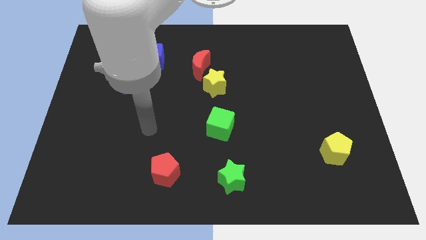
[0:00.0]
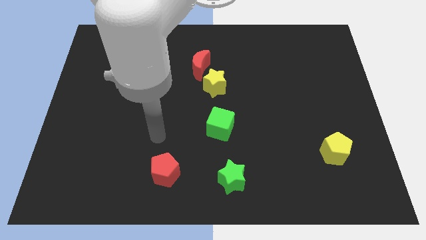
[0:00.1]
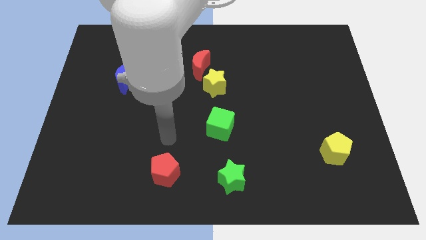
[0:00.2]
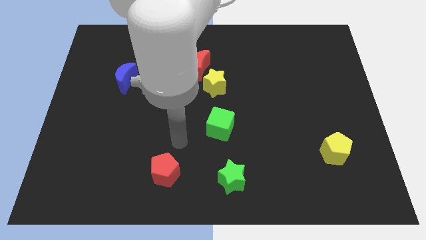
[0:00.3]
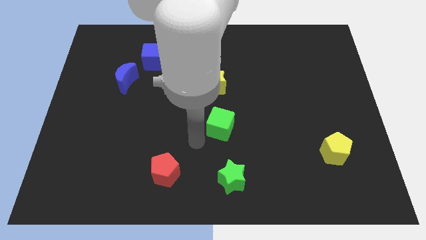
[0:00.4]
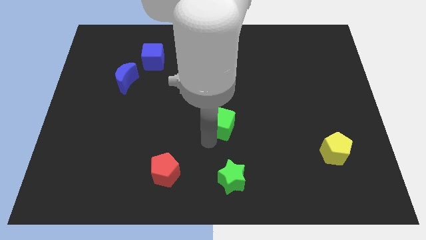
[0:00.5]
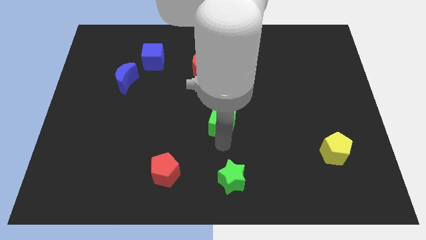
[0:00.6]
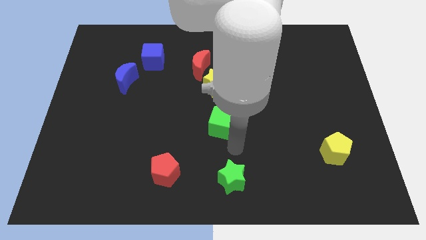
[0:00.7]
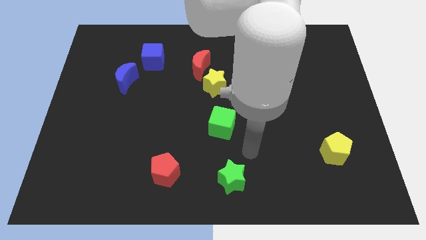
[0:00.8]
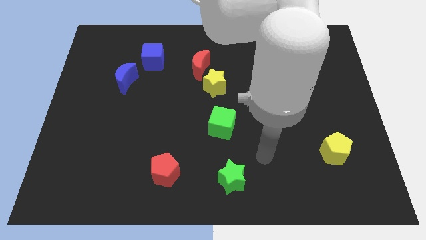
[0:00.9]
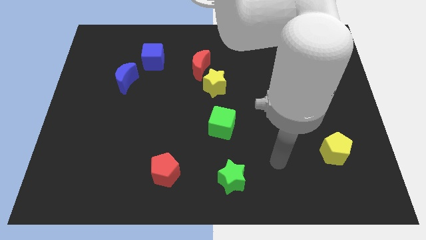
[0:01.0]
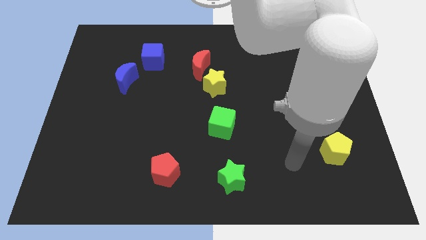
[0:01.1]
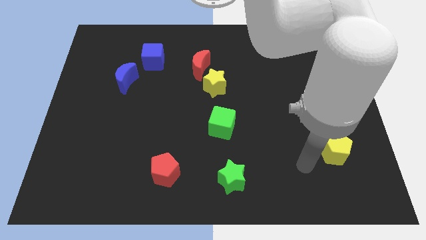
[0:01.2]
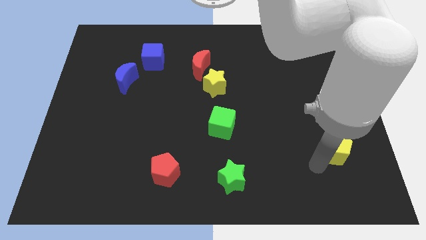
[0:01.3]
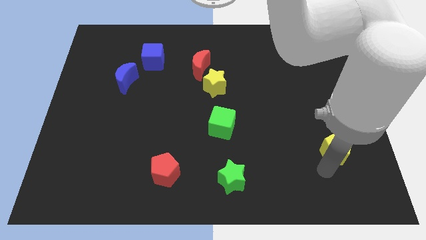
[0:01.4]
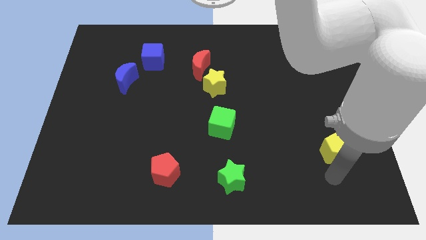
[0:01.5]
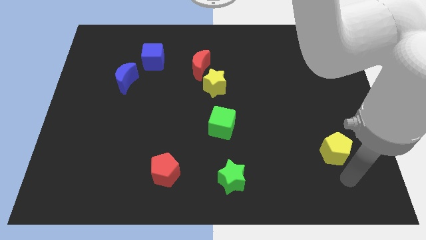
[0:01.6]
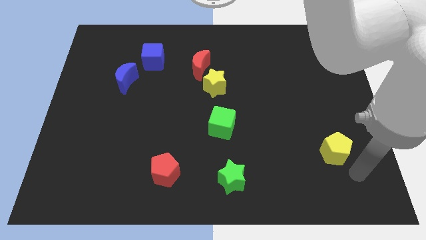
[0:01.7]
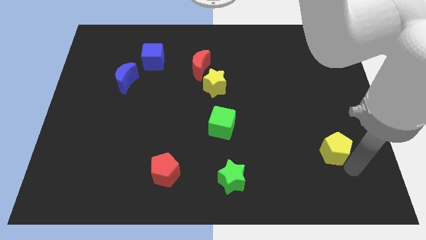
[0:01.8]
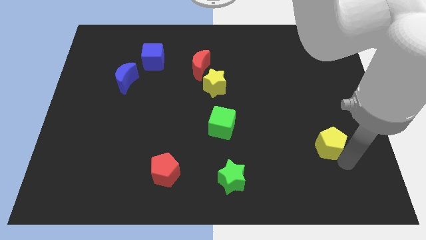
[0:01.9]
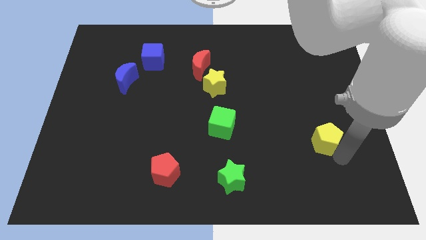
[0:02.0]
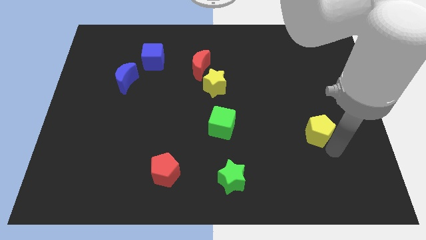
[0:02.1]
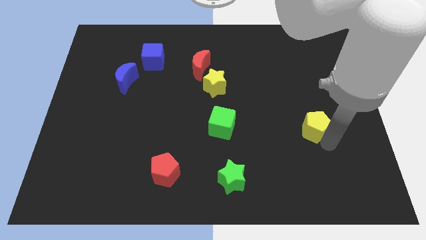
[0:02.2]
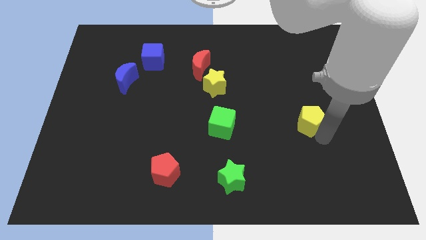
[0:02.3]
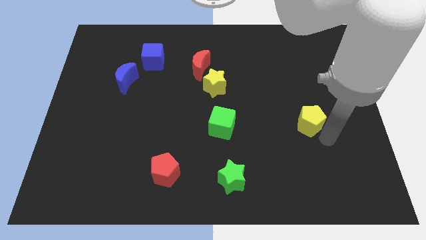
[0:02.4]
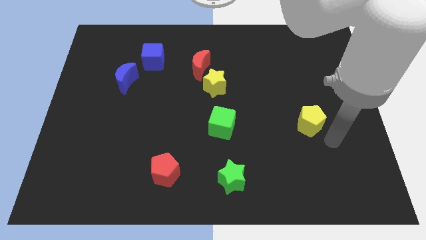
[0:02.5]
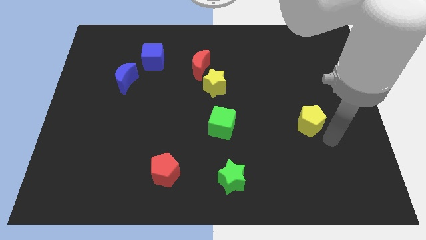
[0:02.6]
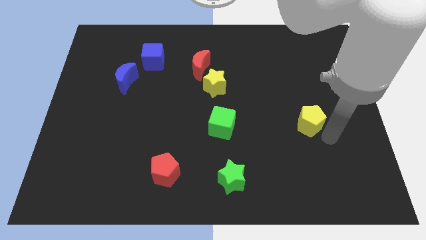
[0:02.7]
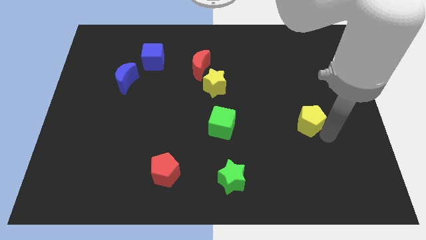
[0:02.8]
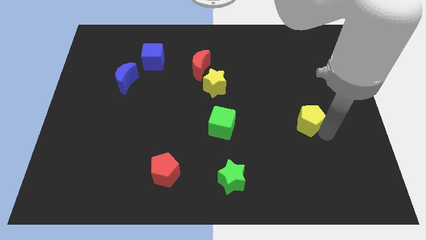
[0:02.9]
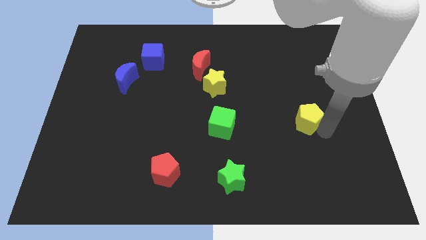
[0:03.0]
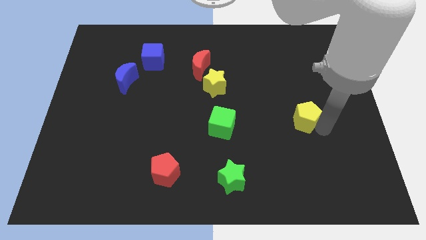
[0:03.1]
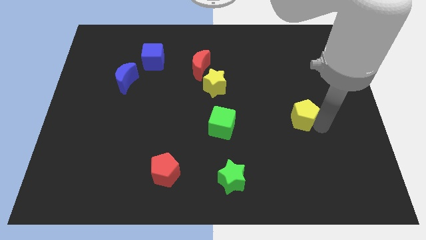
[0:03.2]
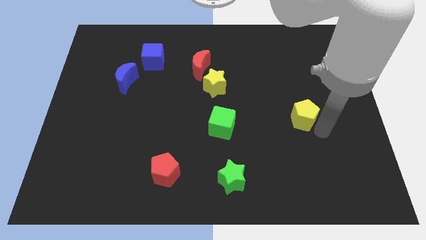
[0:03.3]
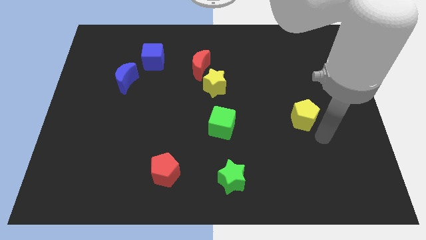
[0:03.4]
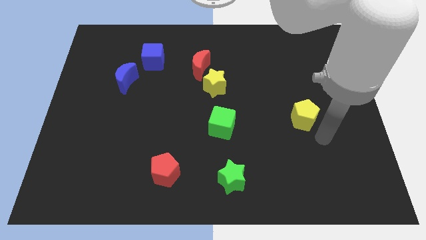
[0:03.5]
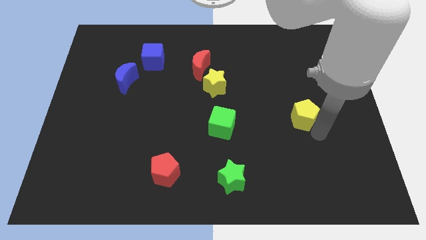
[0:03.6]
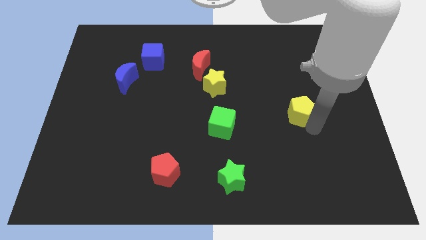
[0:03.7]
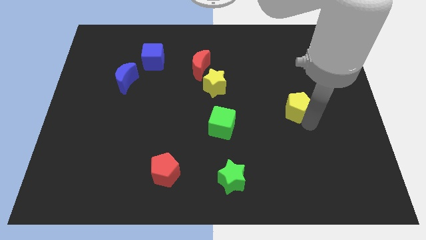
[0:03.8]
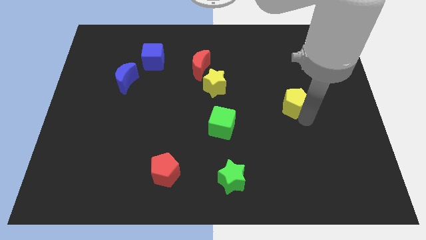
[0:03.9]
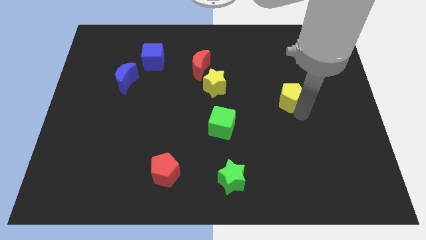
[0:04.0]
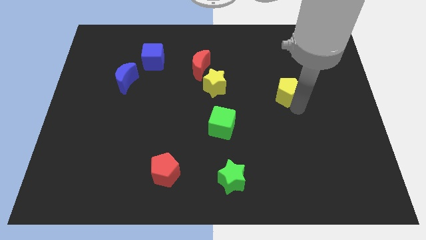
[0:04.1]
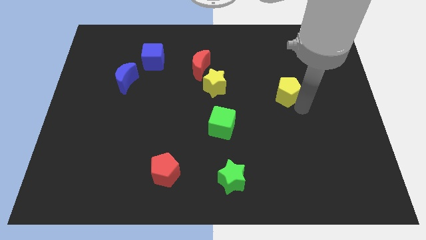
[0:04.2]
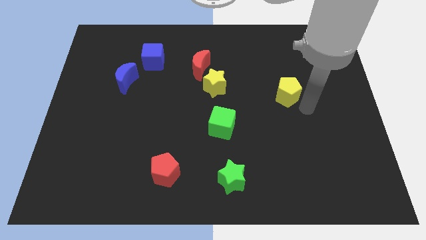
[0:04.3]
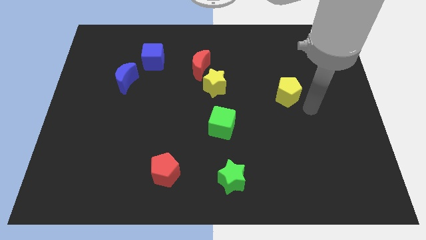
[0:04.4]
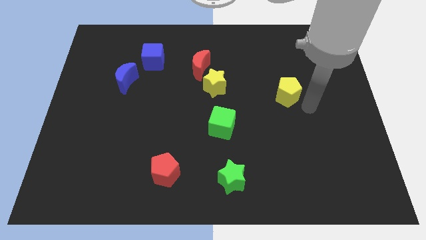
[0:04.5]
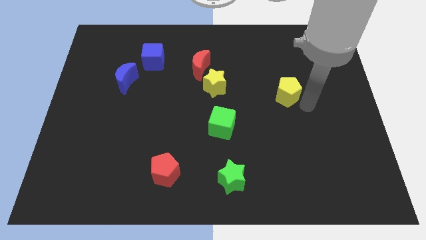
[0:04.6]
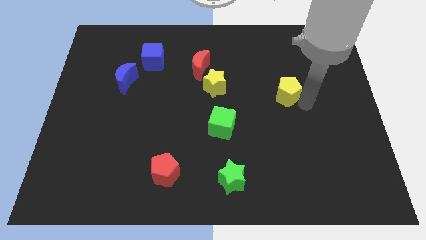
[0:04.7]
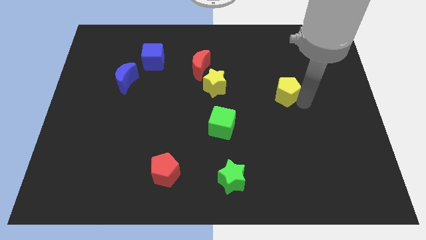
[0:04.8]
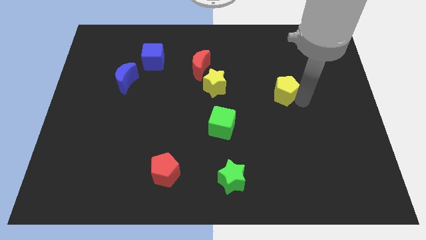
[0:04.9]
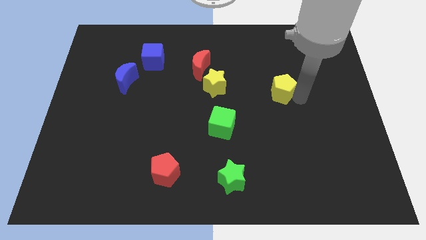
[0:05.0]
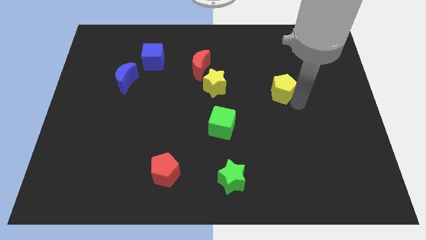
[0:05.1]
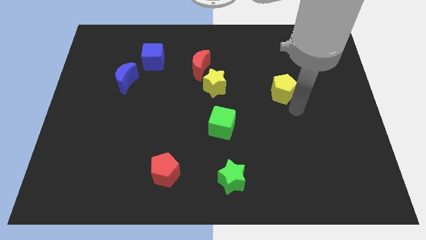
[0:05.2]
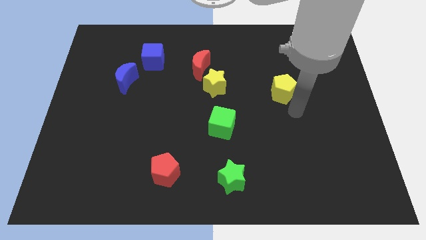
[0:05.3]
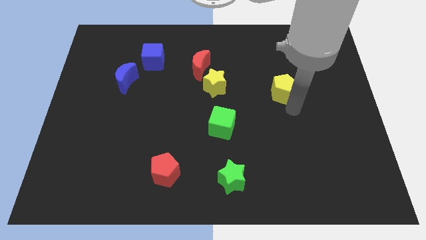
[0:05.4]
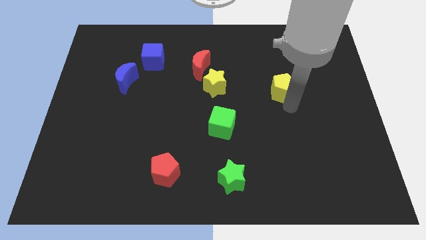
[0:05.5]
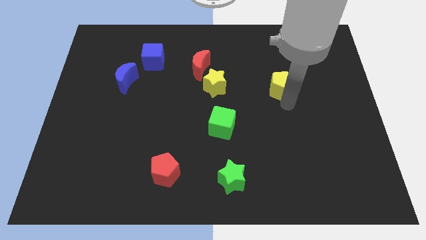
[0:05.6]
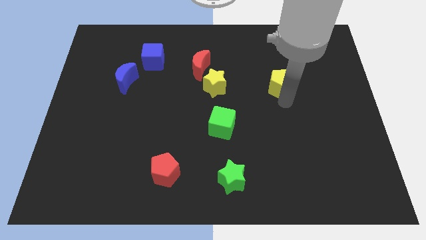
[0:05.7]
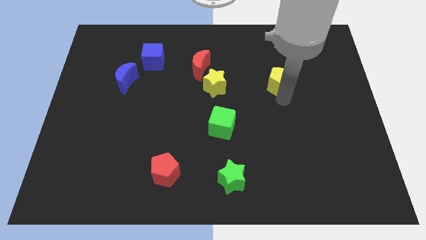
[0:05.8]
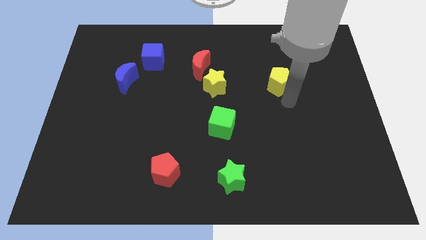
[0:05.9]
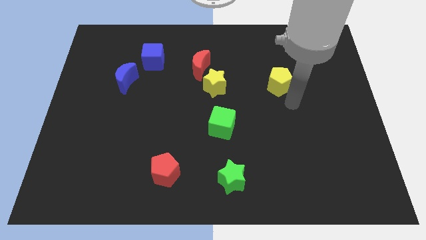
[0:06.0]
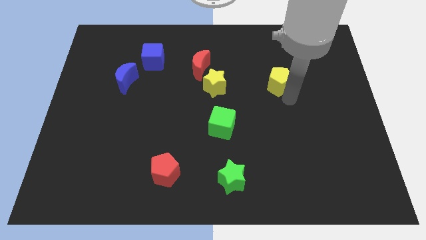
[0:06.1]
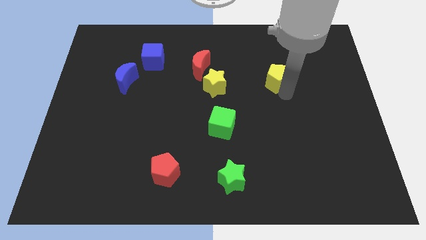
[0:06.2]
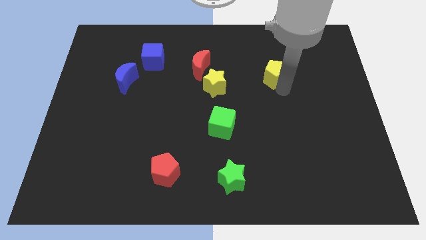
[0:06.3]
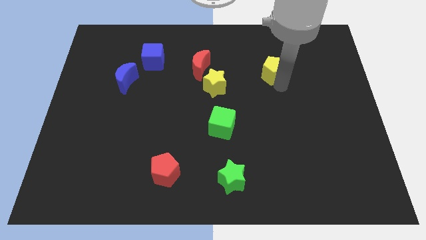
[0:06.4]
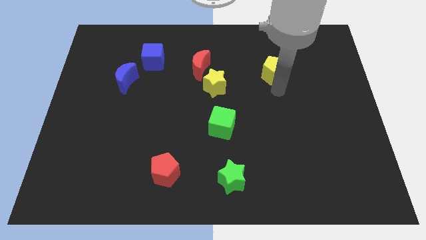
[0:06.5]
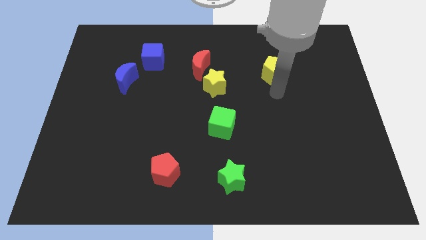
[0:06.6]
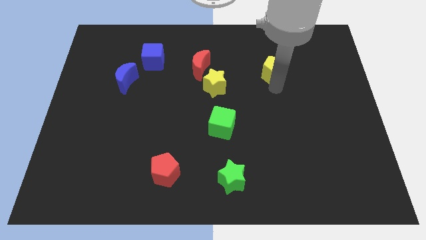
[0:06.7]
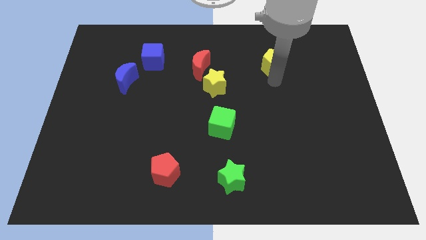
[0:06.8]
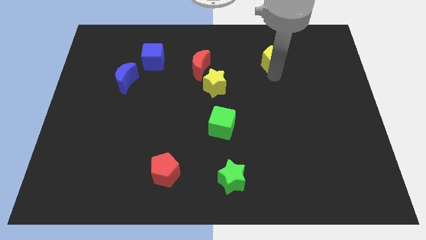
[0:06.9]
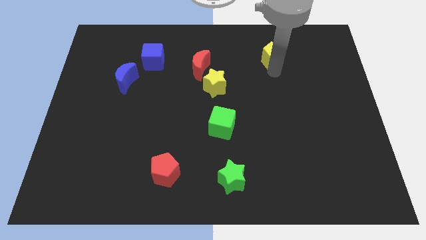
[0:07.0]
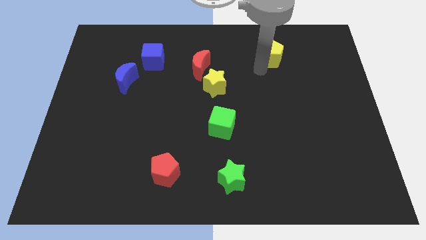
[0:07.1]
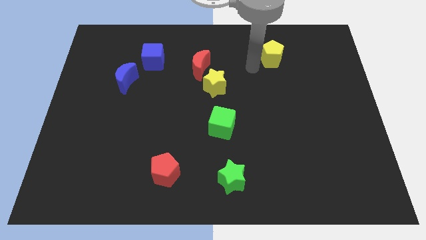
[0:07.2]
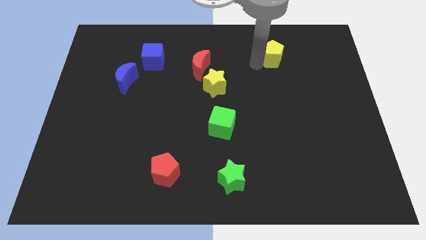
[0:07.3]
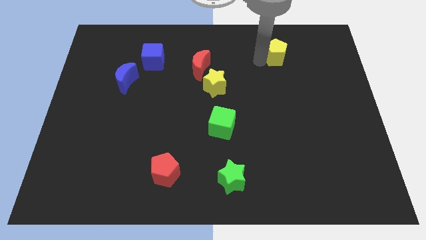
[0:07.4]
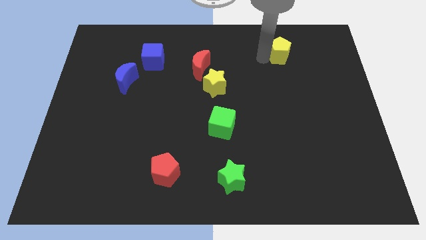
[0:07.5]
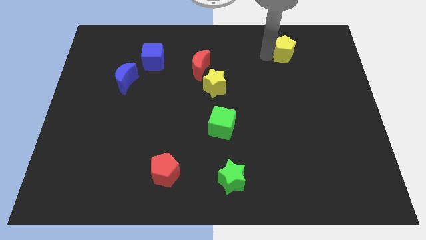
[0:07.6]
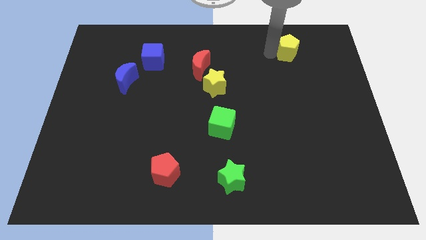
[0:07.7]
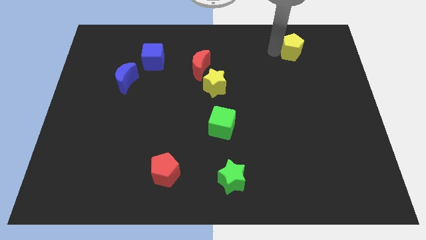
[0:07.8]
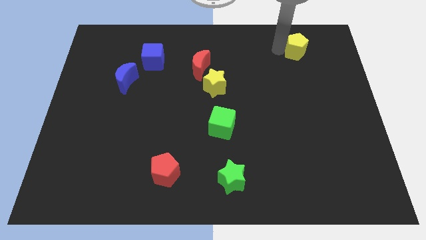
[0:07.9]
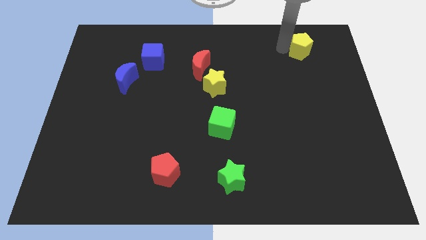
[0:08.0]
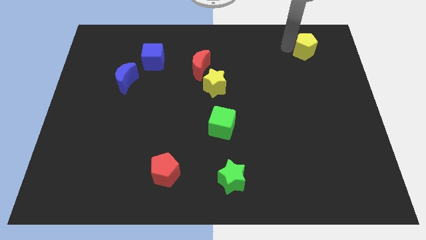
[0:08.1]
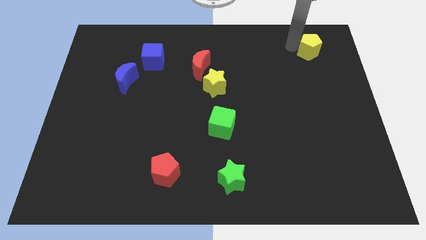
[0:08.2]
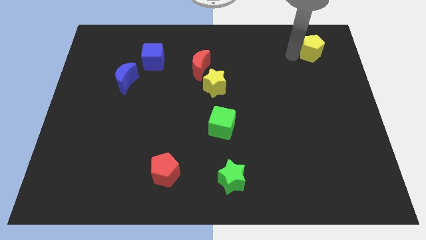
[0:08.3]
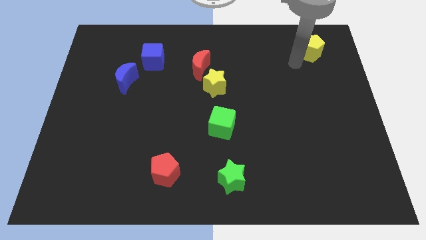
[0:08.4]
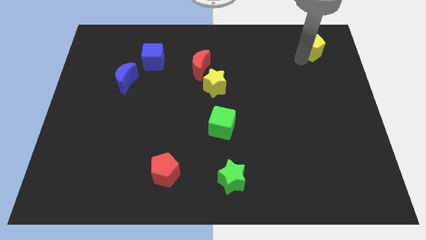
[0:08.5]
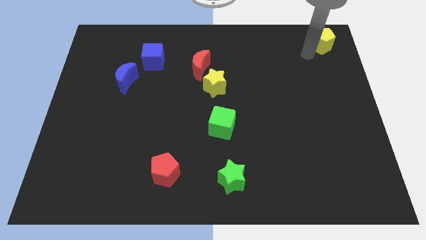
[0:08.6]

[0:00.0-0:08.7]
slide the yellow pentagon to the top right corner
